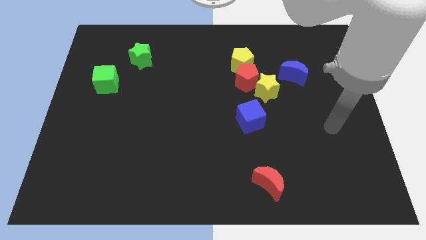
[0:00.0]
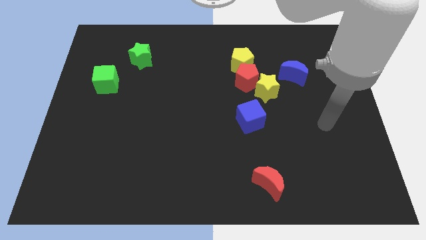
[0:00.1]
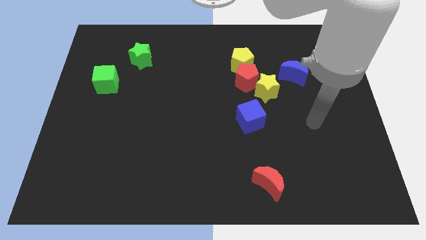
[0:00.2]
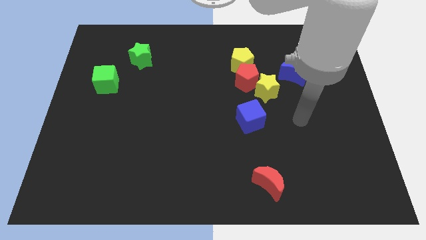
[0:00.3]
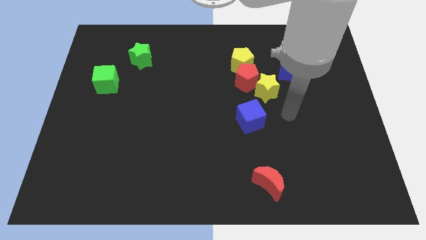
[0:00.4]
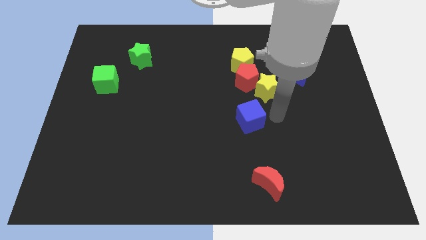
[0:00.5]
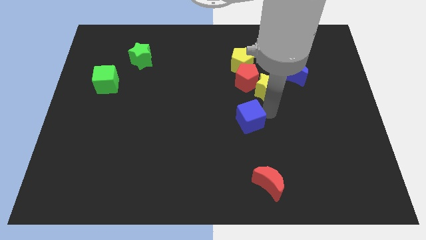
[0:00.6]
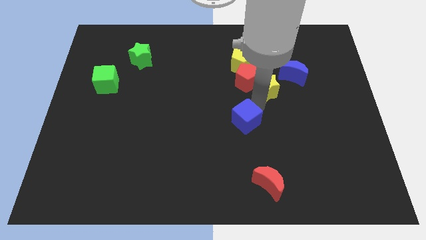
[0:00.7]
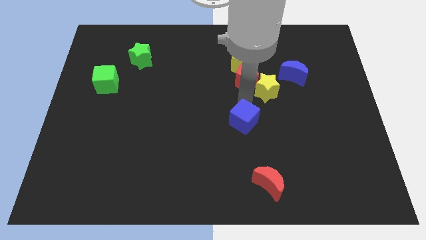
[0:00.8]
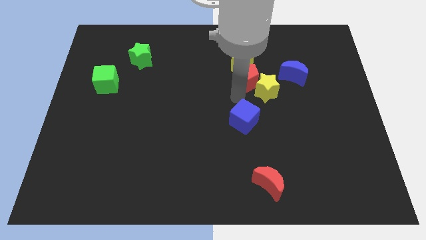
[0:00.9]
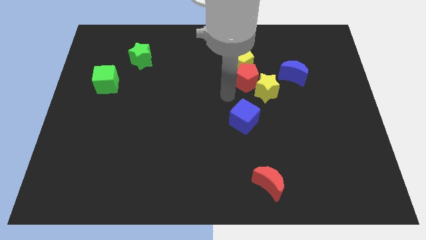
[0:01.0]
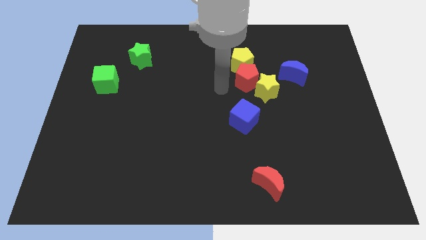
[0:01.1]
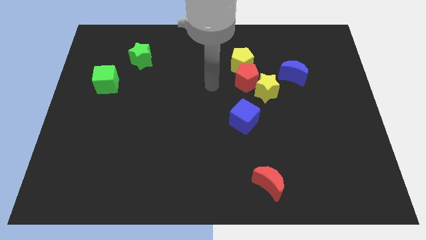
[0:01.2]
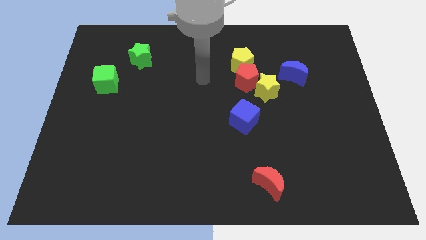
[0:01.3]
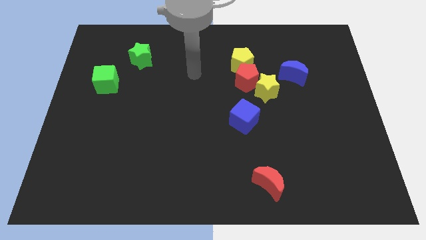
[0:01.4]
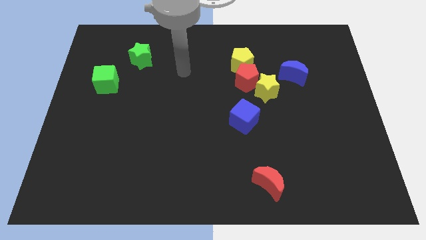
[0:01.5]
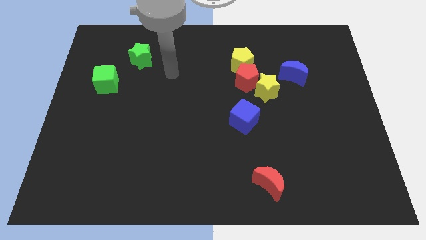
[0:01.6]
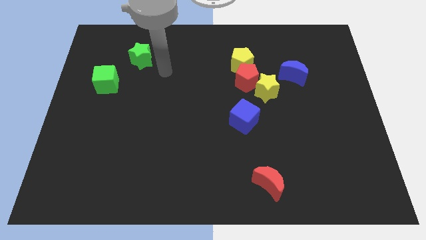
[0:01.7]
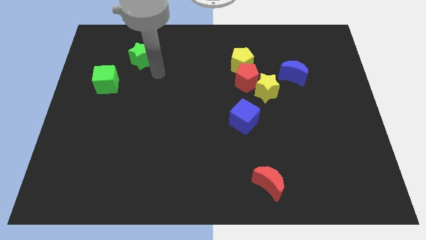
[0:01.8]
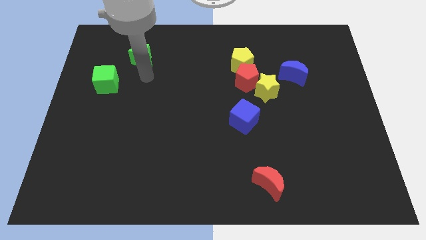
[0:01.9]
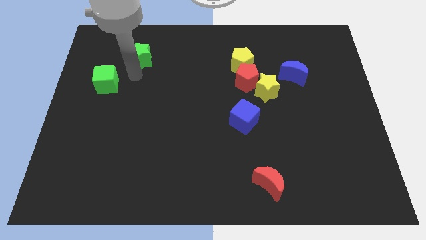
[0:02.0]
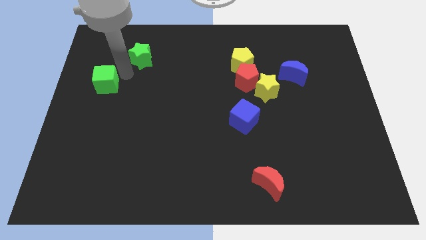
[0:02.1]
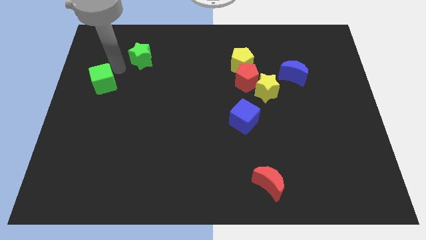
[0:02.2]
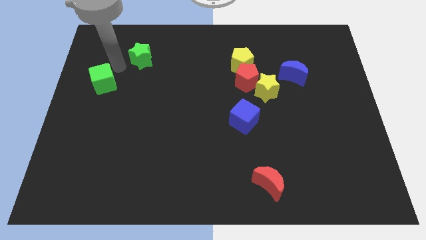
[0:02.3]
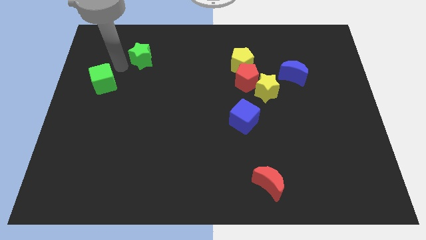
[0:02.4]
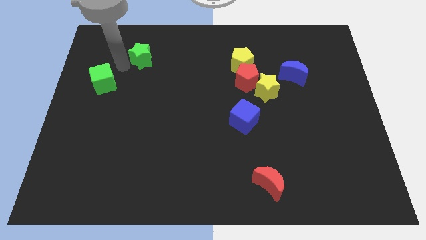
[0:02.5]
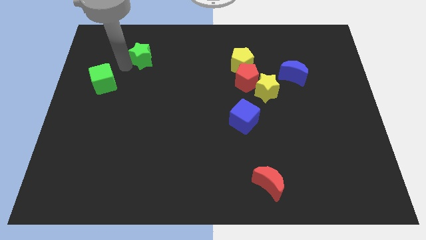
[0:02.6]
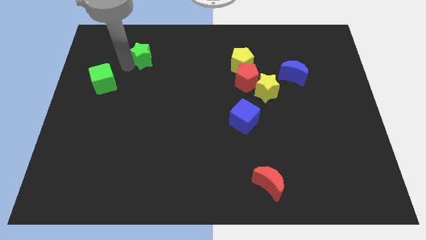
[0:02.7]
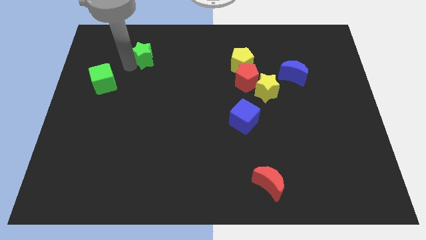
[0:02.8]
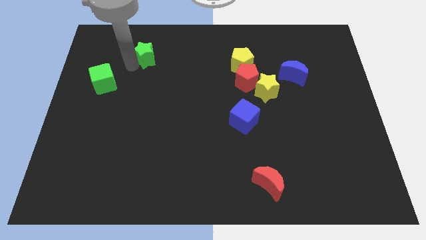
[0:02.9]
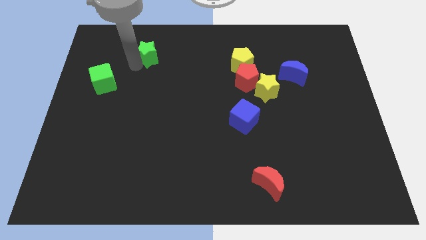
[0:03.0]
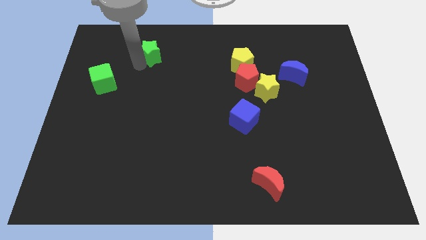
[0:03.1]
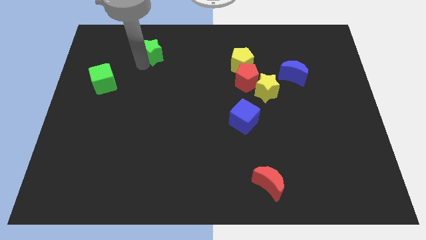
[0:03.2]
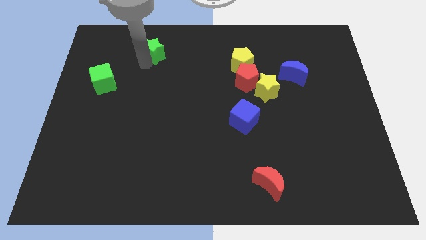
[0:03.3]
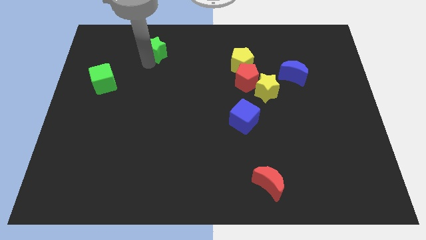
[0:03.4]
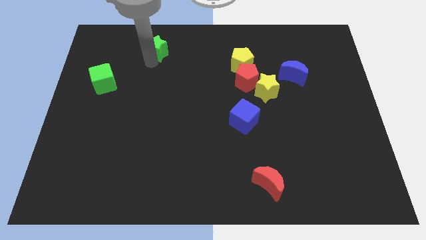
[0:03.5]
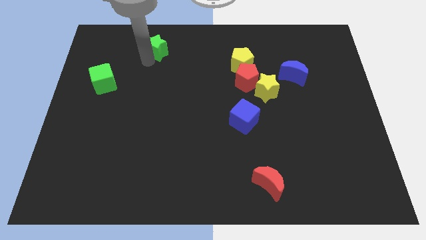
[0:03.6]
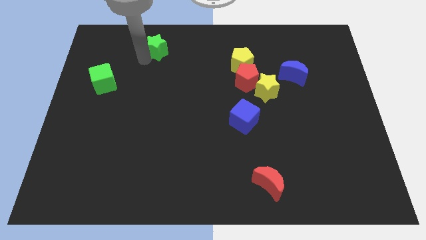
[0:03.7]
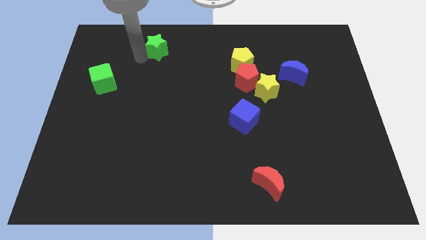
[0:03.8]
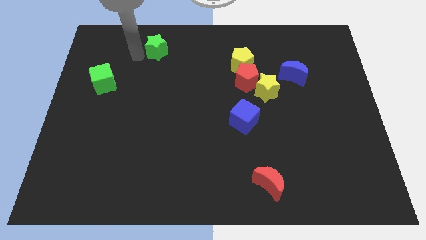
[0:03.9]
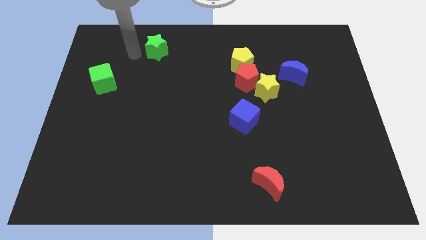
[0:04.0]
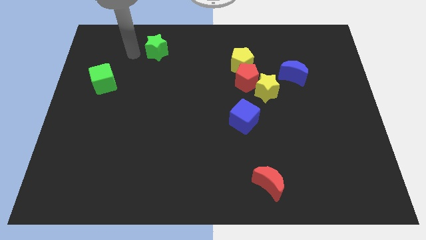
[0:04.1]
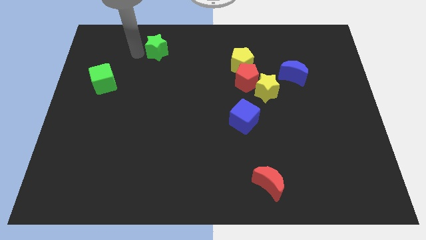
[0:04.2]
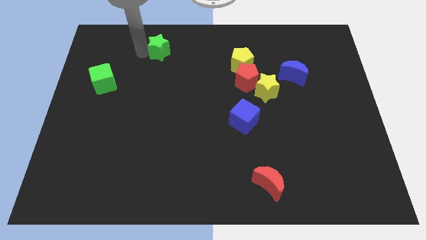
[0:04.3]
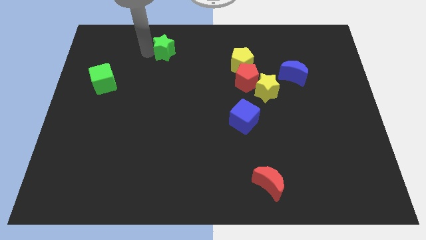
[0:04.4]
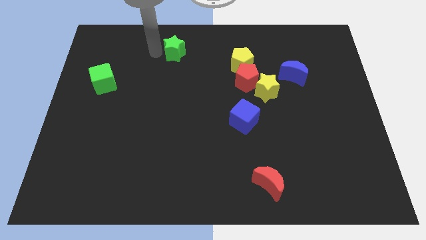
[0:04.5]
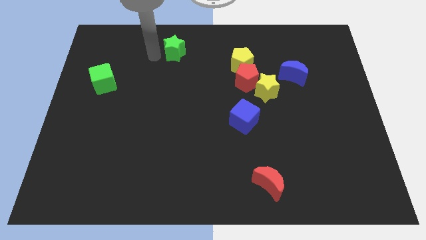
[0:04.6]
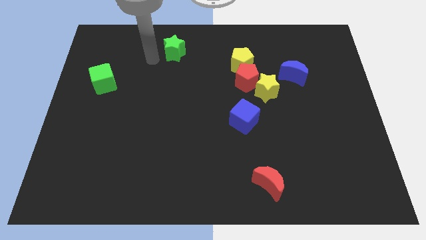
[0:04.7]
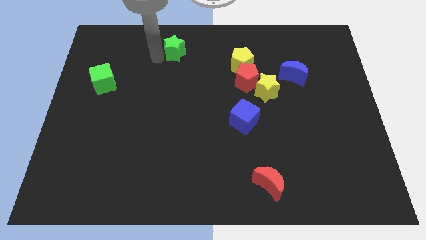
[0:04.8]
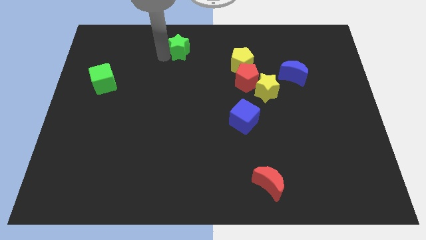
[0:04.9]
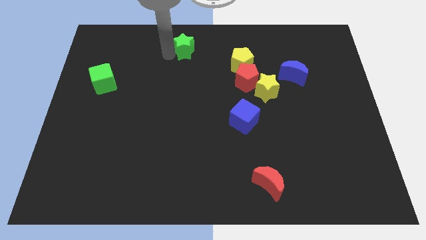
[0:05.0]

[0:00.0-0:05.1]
push the green star to the top side

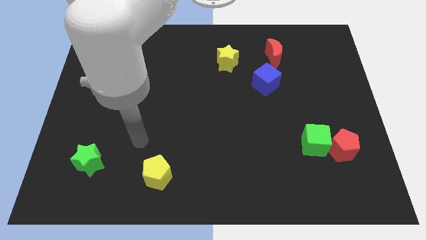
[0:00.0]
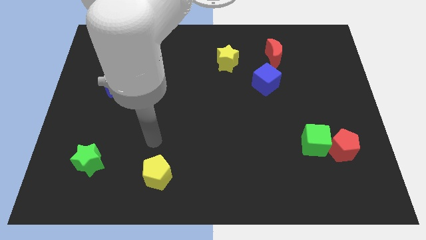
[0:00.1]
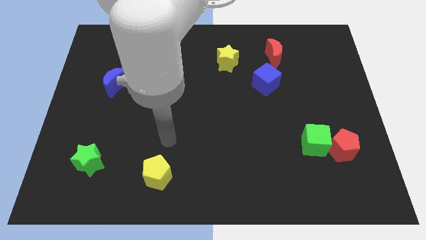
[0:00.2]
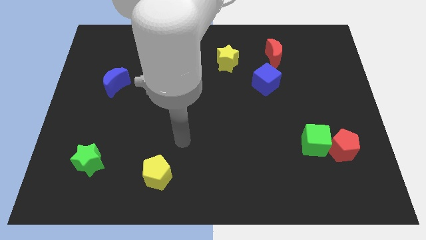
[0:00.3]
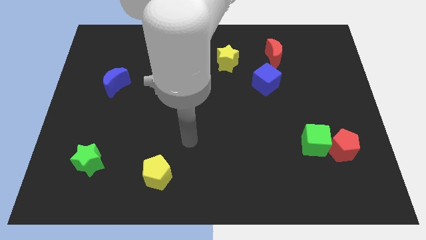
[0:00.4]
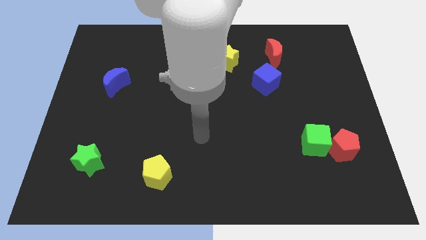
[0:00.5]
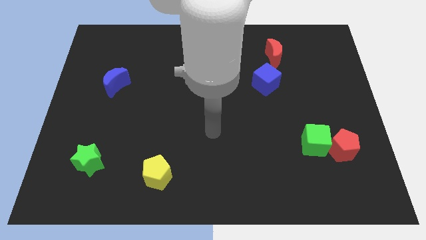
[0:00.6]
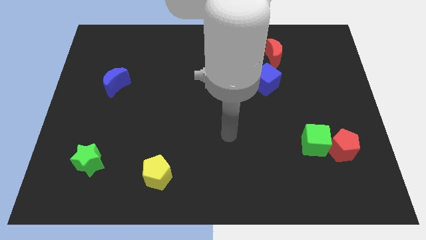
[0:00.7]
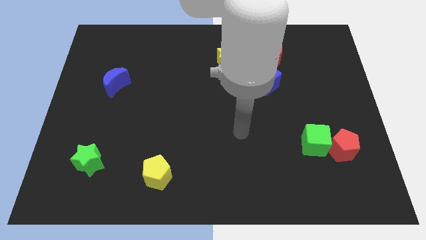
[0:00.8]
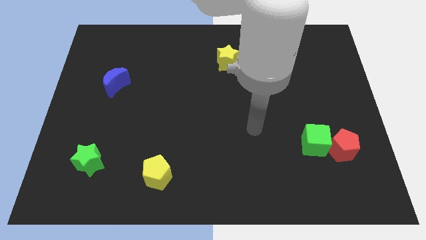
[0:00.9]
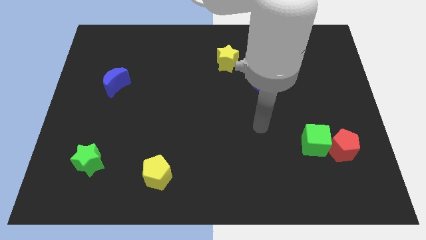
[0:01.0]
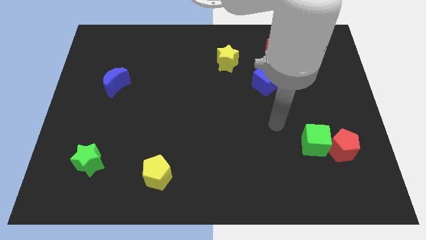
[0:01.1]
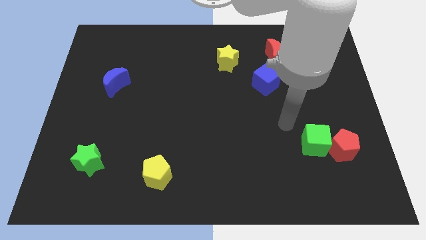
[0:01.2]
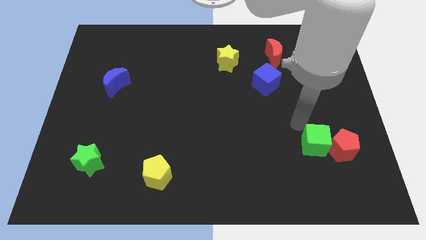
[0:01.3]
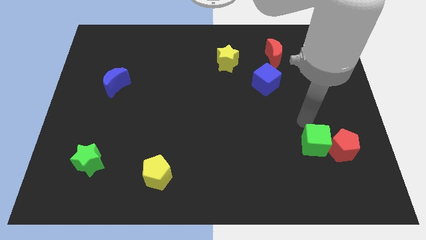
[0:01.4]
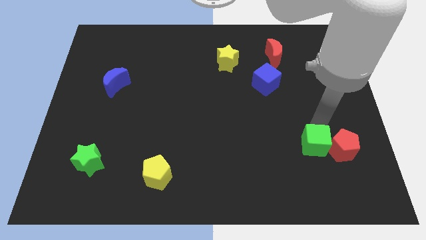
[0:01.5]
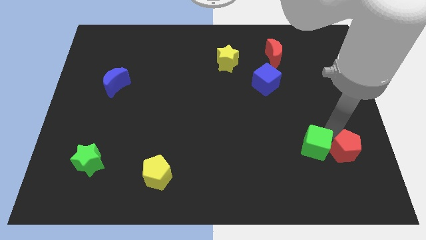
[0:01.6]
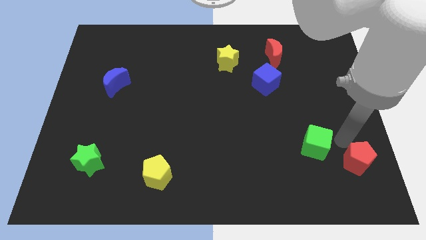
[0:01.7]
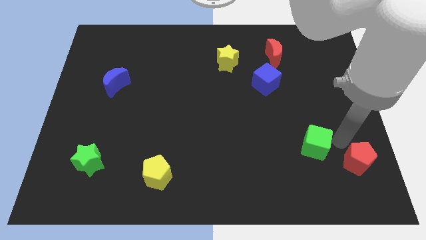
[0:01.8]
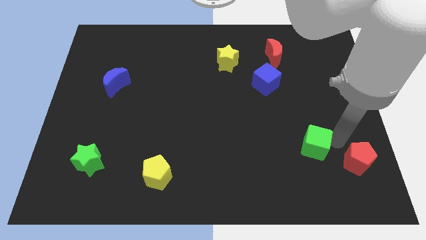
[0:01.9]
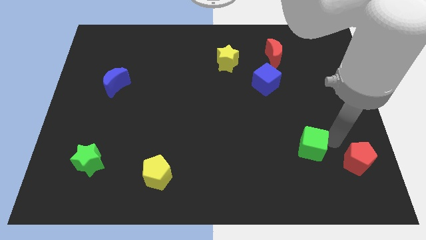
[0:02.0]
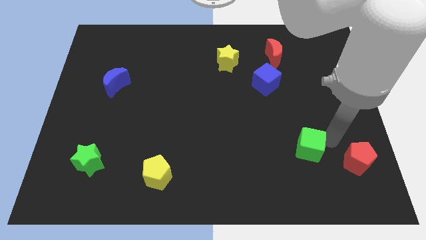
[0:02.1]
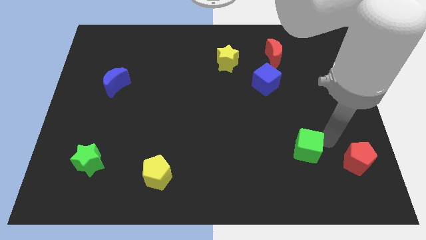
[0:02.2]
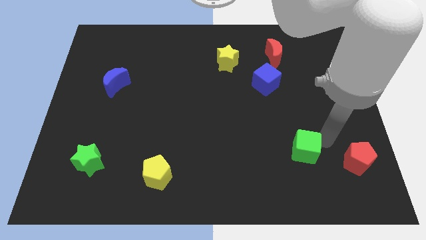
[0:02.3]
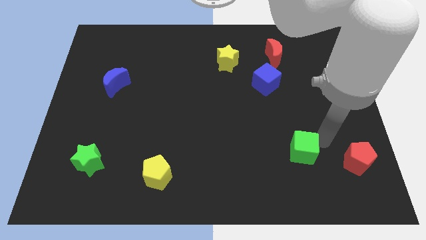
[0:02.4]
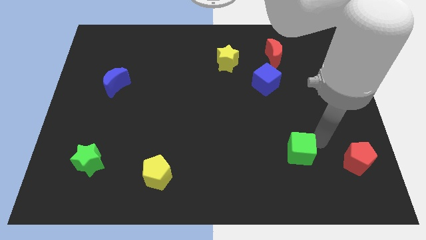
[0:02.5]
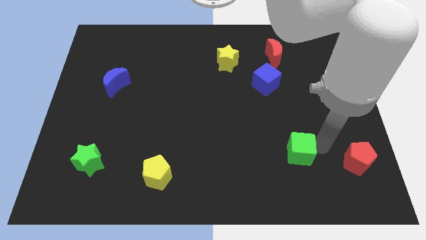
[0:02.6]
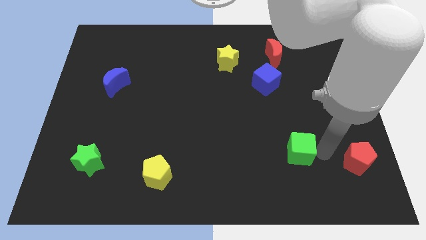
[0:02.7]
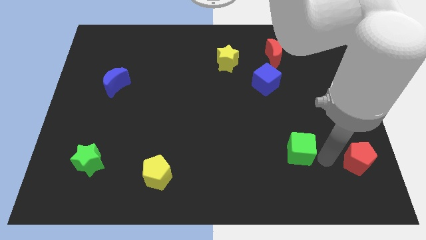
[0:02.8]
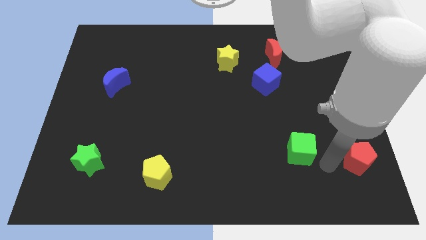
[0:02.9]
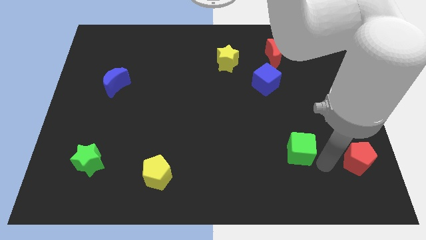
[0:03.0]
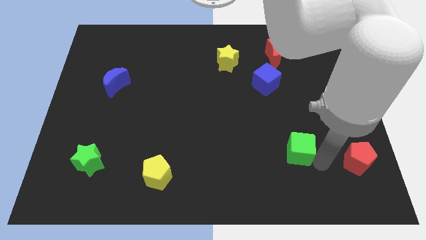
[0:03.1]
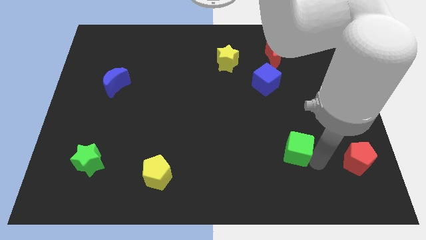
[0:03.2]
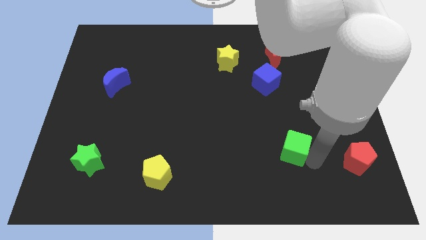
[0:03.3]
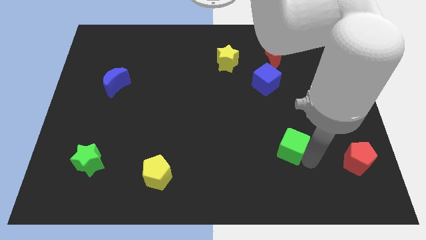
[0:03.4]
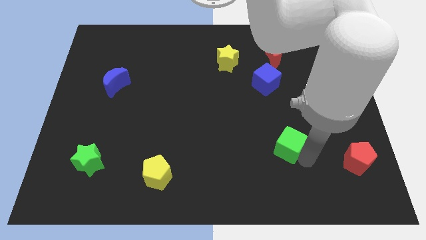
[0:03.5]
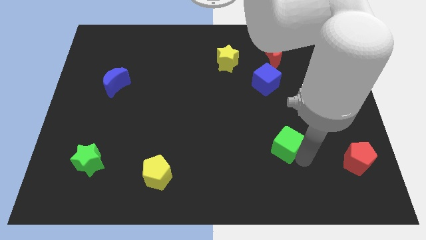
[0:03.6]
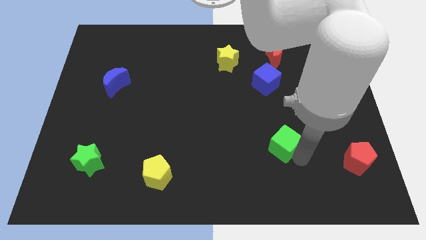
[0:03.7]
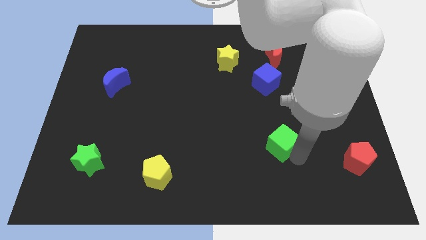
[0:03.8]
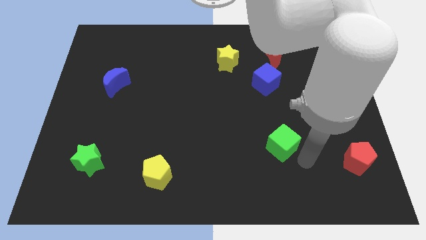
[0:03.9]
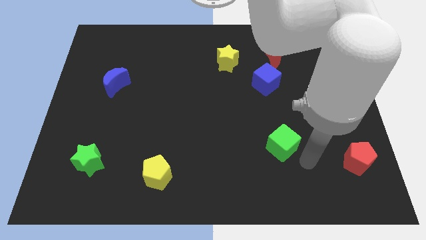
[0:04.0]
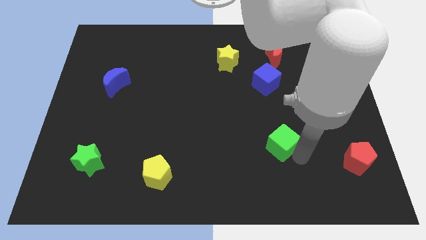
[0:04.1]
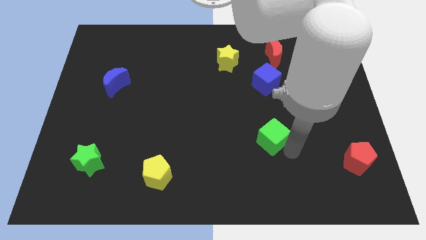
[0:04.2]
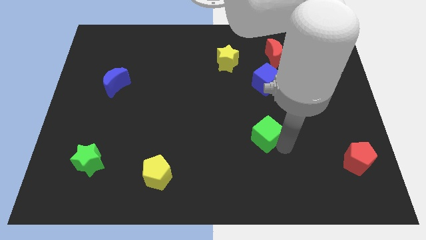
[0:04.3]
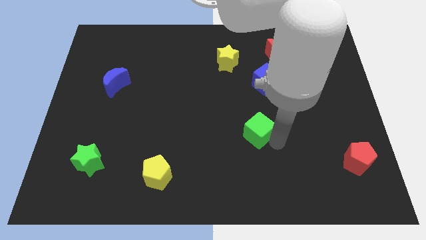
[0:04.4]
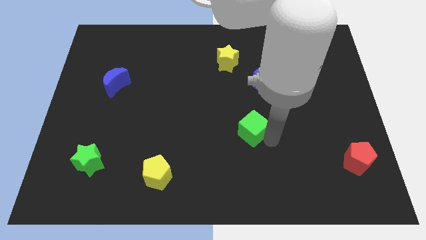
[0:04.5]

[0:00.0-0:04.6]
put the green cube to the center of the board
